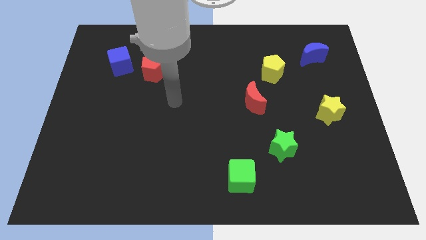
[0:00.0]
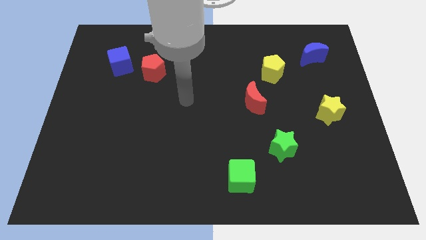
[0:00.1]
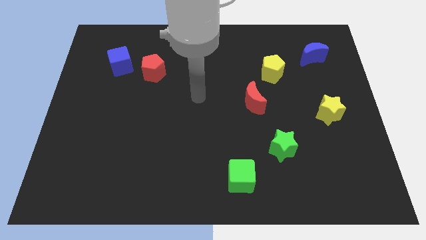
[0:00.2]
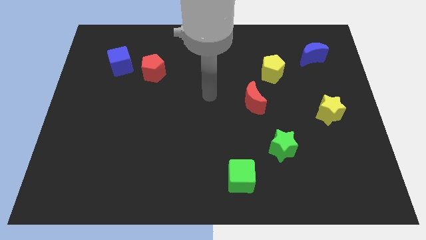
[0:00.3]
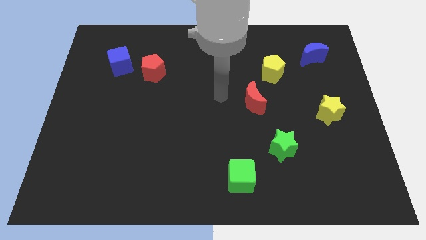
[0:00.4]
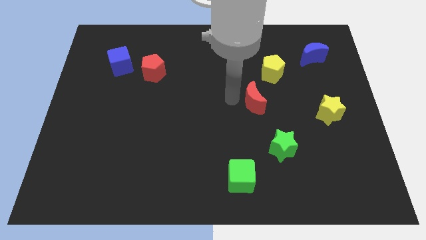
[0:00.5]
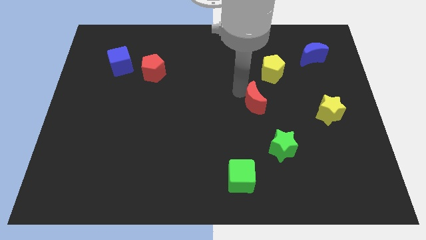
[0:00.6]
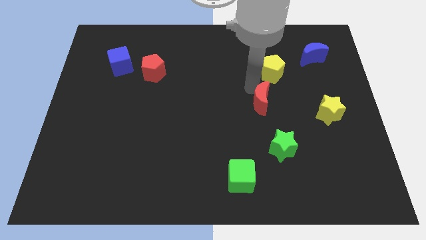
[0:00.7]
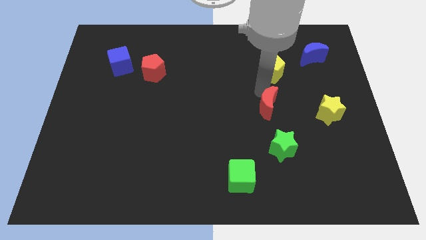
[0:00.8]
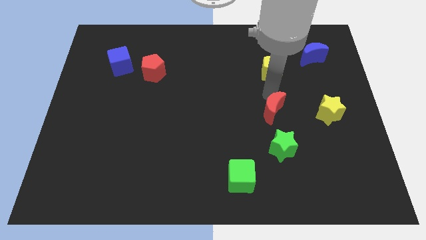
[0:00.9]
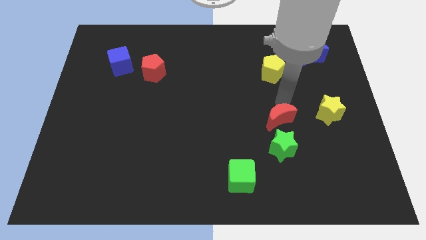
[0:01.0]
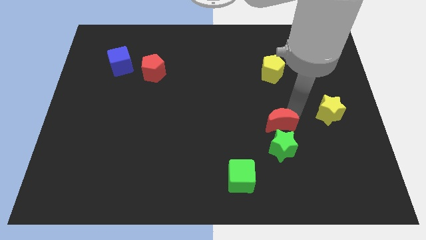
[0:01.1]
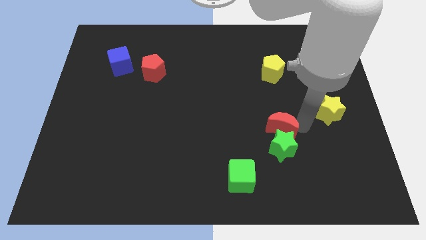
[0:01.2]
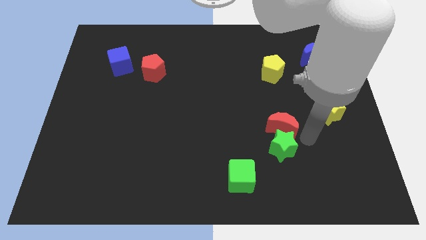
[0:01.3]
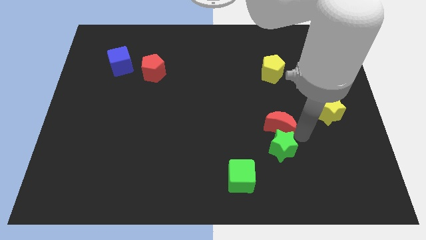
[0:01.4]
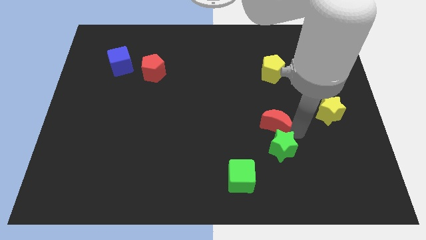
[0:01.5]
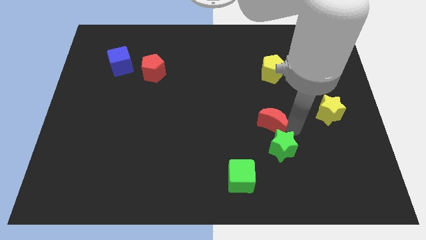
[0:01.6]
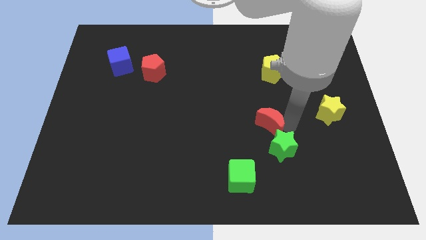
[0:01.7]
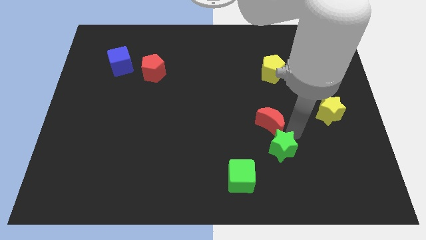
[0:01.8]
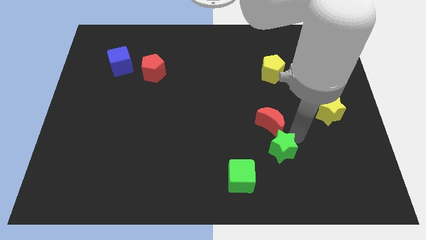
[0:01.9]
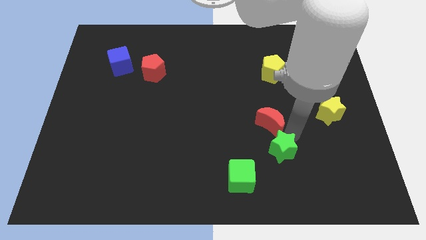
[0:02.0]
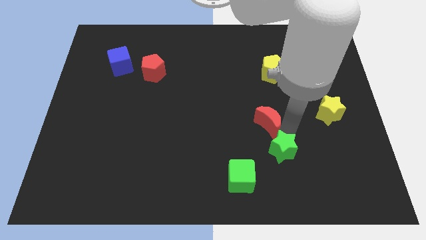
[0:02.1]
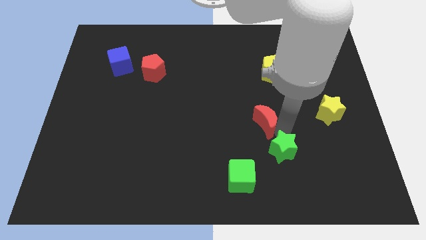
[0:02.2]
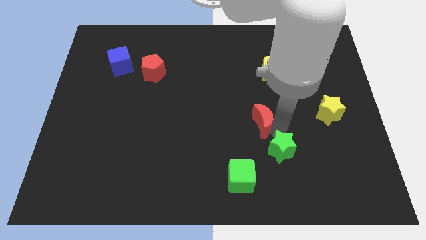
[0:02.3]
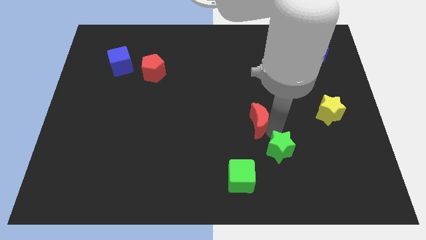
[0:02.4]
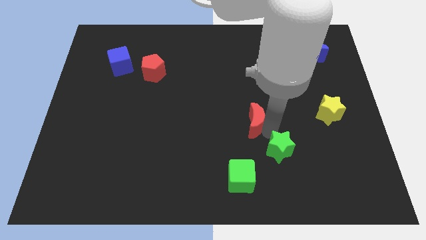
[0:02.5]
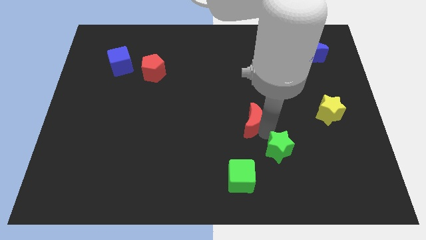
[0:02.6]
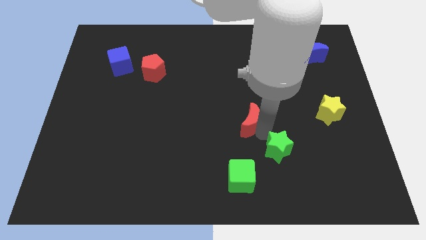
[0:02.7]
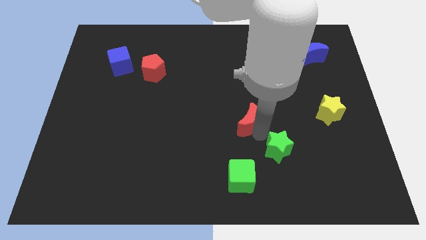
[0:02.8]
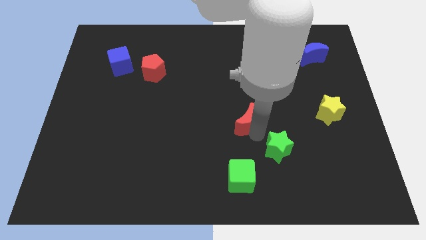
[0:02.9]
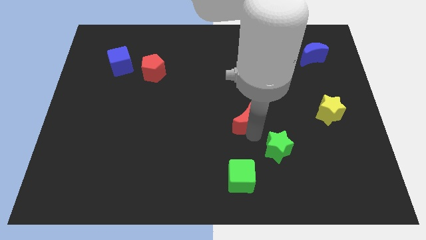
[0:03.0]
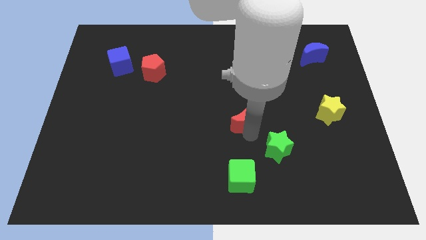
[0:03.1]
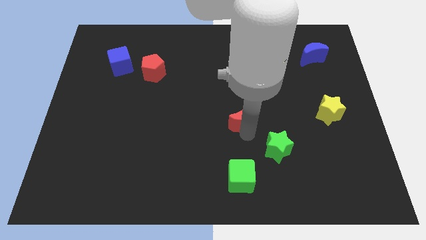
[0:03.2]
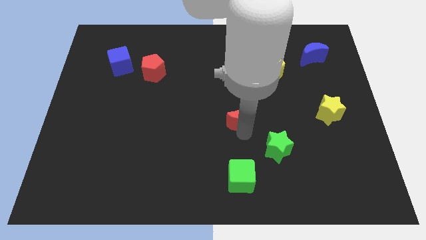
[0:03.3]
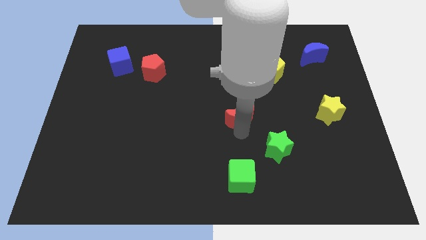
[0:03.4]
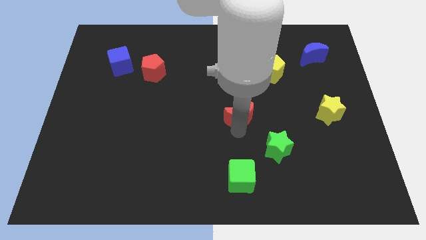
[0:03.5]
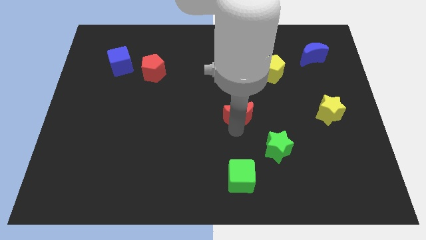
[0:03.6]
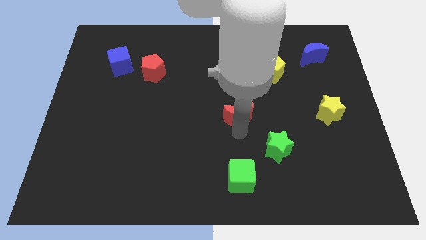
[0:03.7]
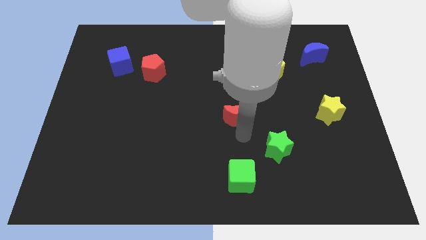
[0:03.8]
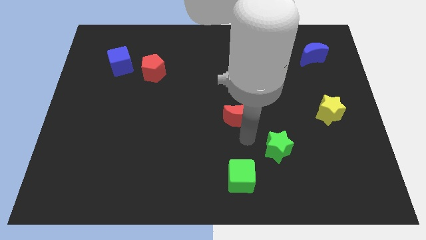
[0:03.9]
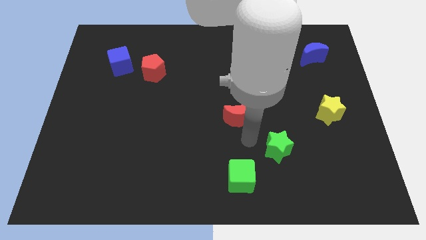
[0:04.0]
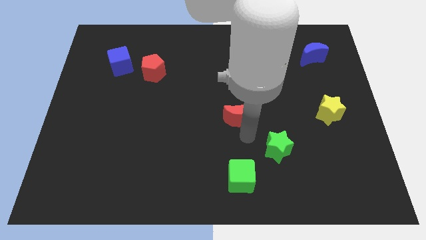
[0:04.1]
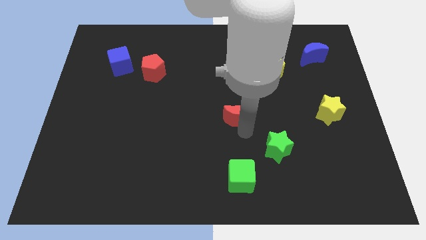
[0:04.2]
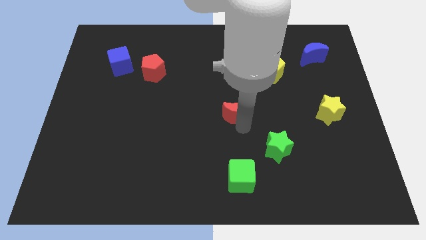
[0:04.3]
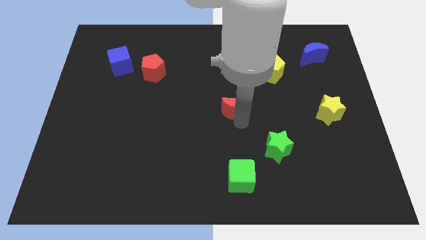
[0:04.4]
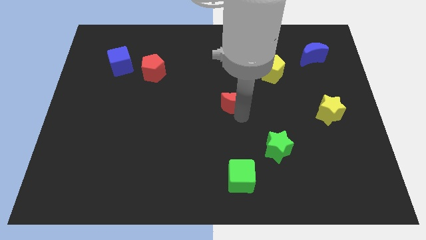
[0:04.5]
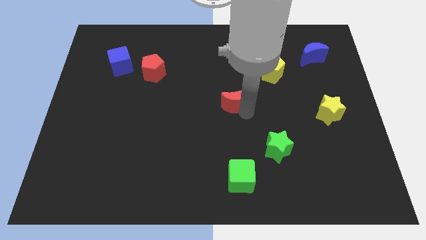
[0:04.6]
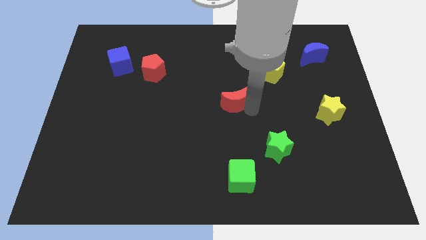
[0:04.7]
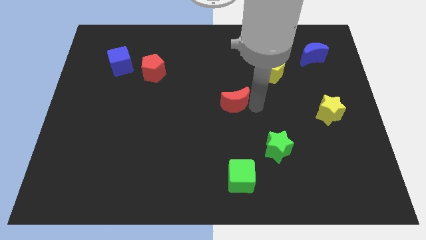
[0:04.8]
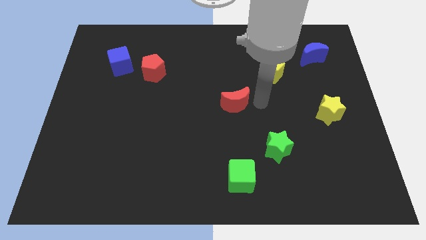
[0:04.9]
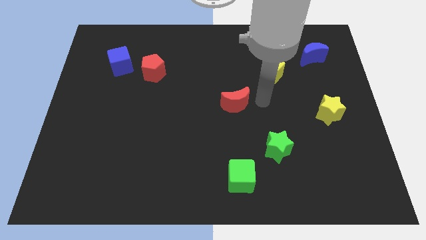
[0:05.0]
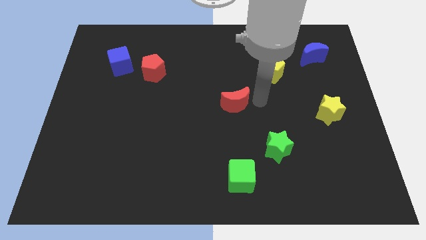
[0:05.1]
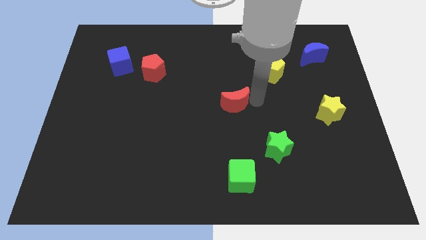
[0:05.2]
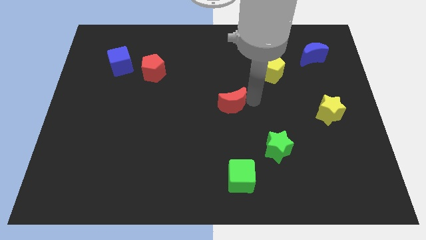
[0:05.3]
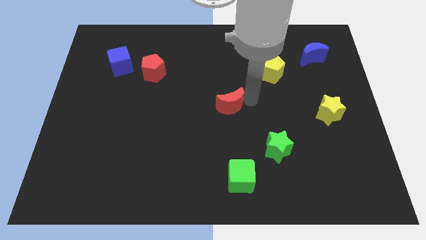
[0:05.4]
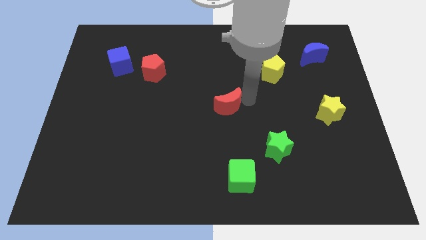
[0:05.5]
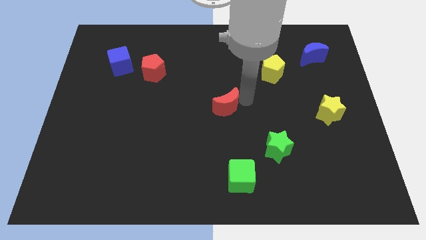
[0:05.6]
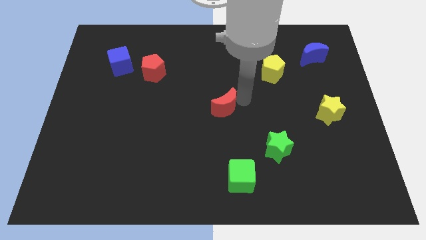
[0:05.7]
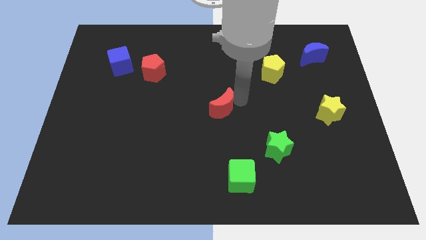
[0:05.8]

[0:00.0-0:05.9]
move the red moon to the left slightly

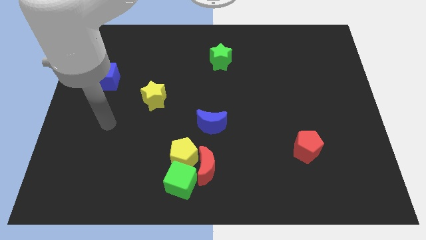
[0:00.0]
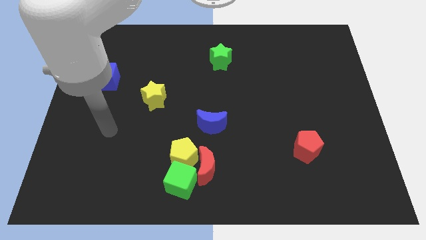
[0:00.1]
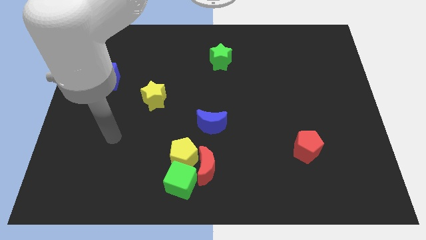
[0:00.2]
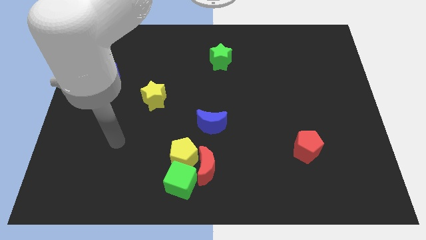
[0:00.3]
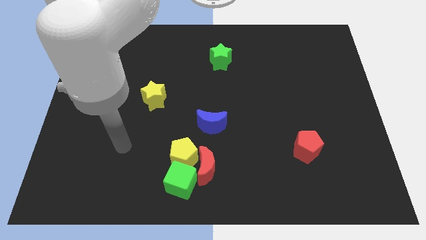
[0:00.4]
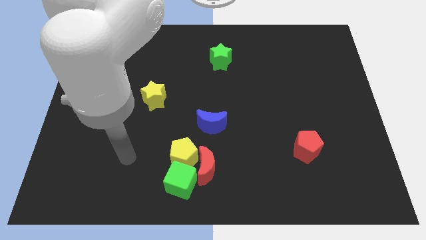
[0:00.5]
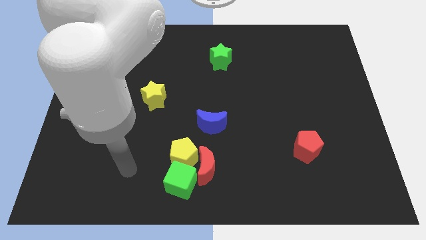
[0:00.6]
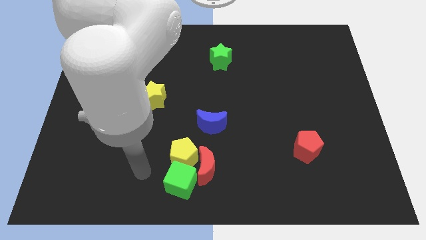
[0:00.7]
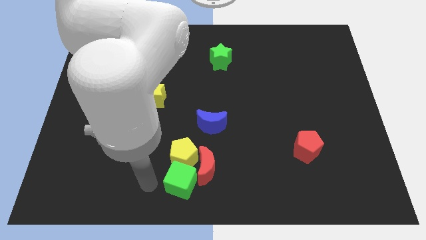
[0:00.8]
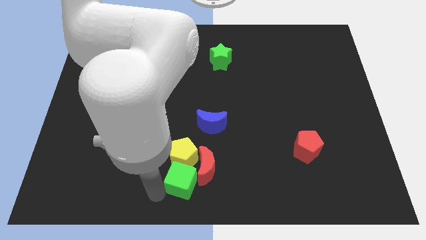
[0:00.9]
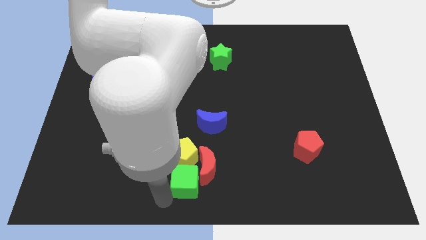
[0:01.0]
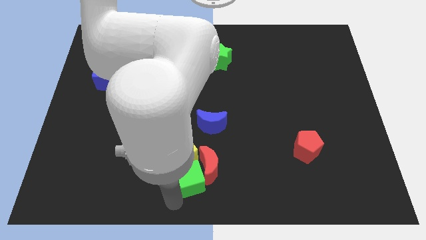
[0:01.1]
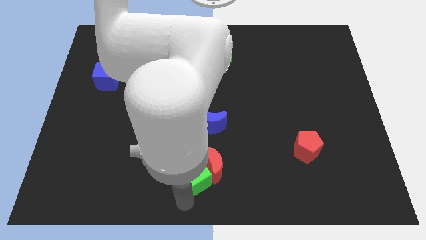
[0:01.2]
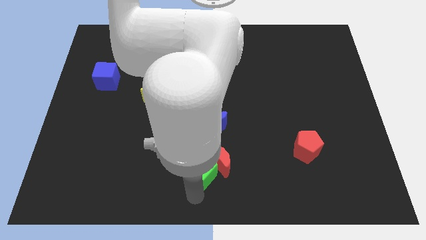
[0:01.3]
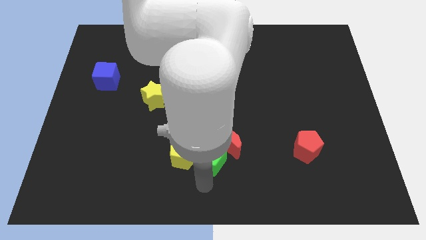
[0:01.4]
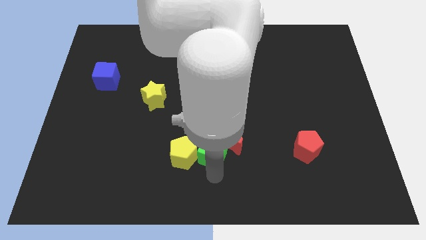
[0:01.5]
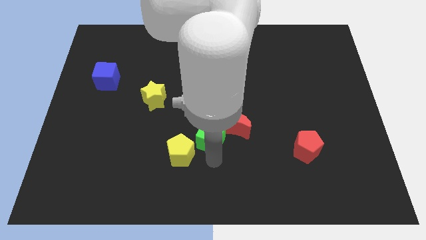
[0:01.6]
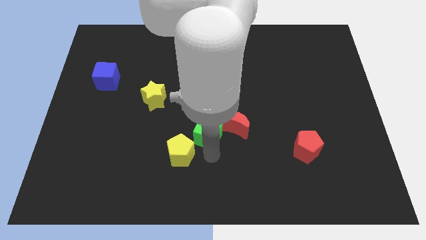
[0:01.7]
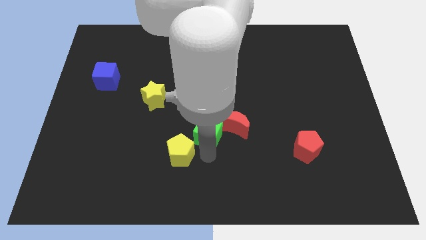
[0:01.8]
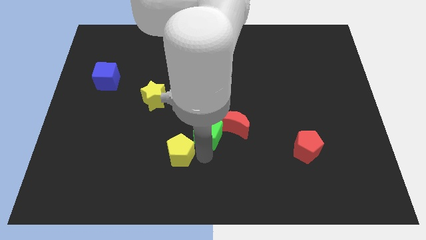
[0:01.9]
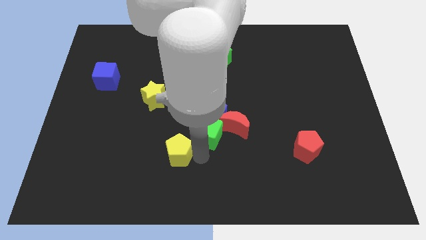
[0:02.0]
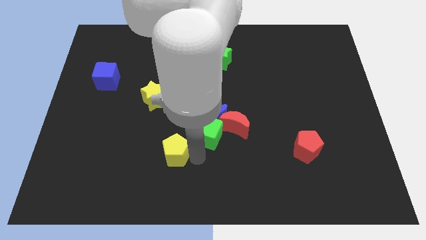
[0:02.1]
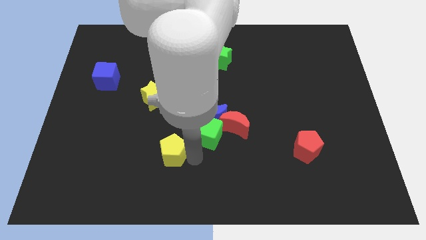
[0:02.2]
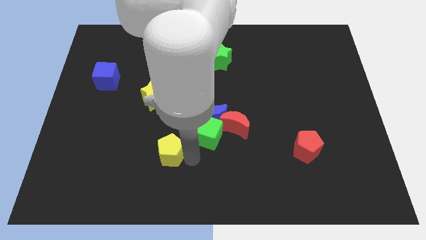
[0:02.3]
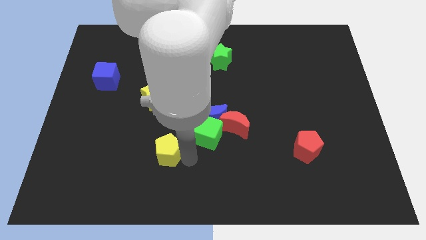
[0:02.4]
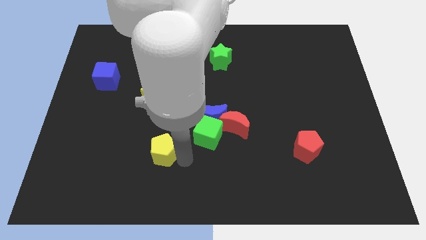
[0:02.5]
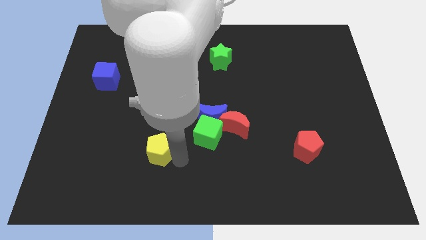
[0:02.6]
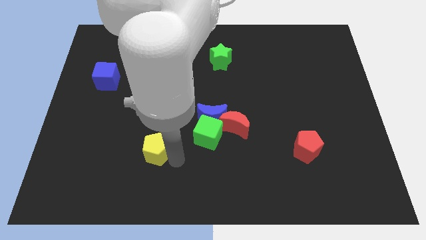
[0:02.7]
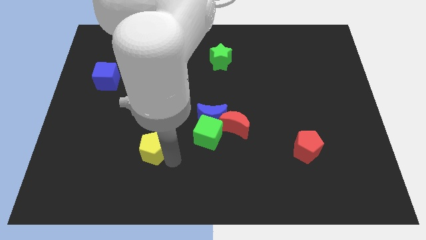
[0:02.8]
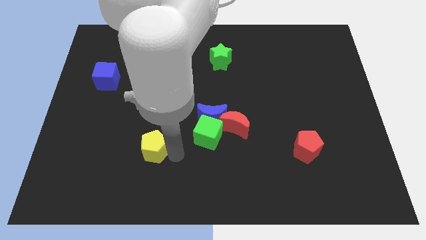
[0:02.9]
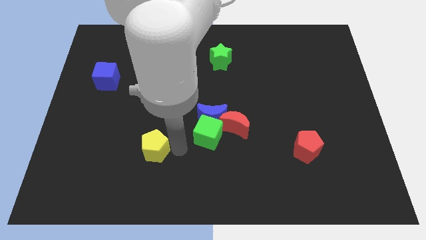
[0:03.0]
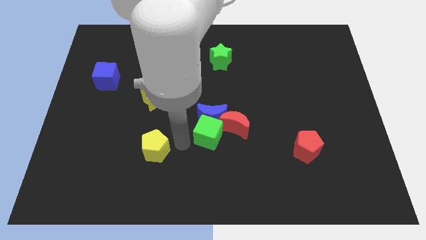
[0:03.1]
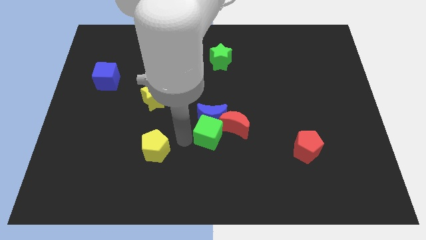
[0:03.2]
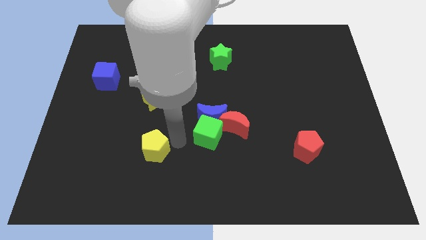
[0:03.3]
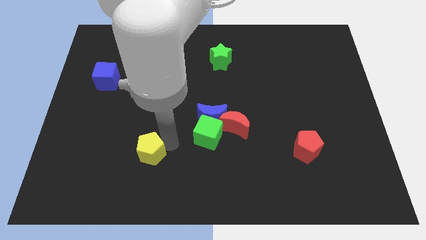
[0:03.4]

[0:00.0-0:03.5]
move the yellow pentagon to the left a little
